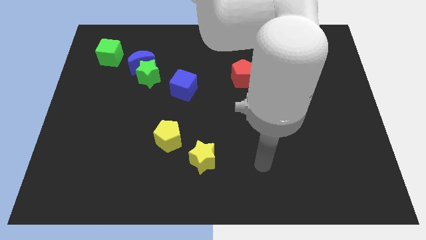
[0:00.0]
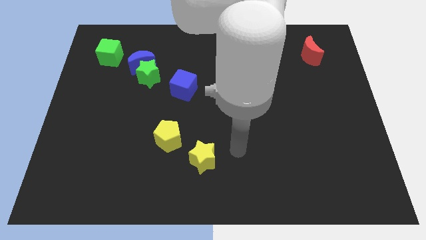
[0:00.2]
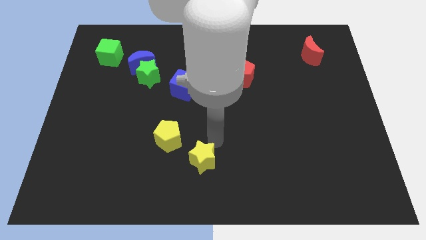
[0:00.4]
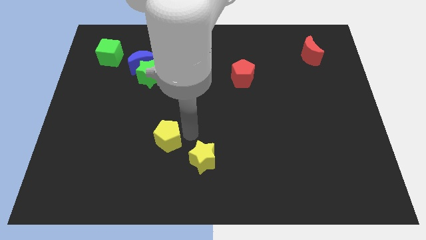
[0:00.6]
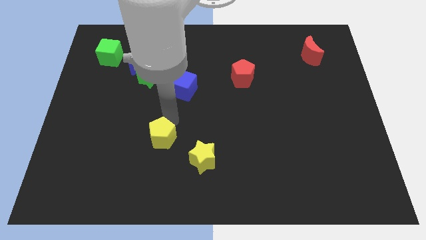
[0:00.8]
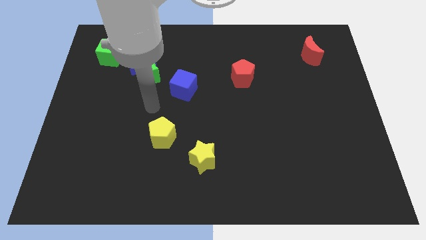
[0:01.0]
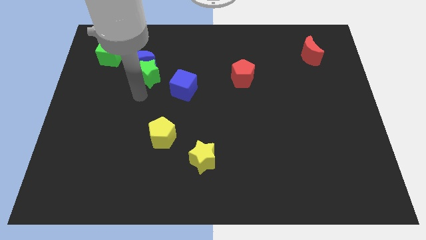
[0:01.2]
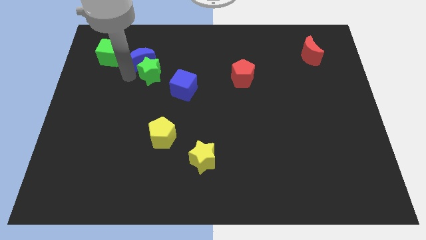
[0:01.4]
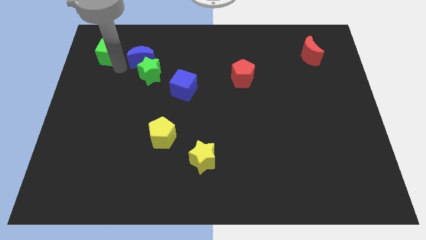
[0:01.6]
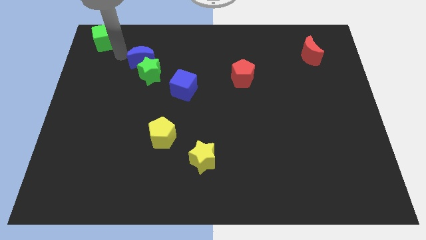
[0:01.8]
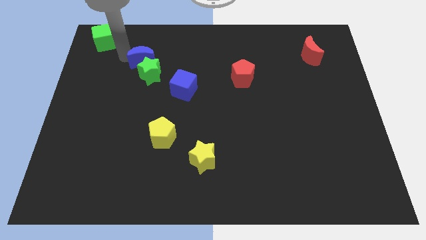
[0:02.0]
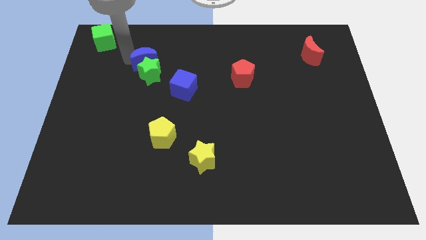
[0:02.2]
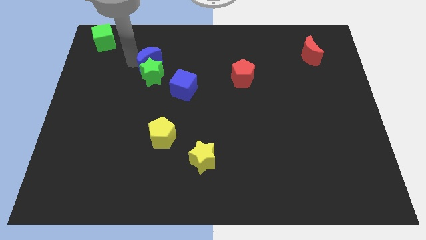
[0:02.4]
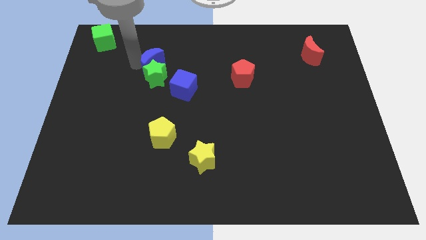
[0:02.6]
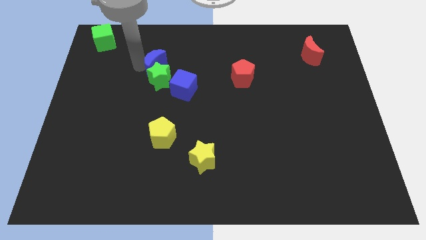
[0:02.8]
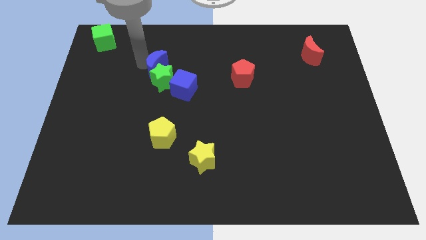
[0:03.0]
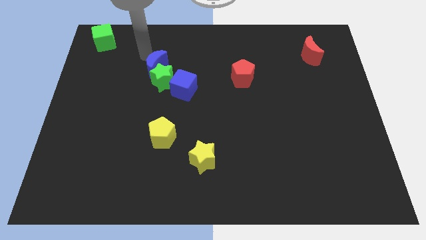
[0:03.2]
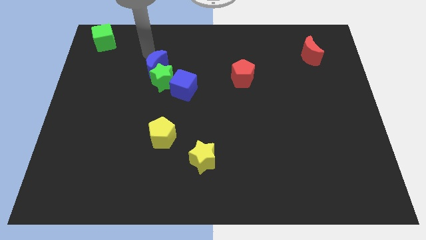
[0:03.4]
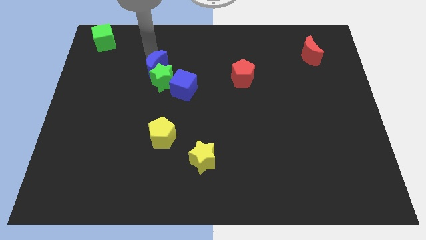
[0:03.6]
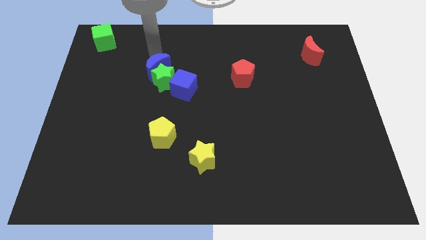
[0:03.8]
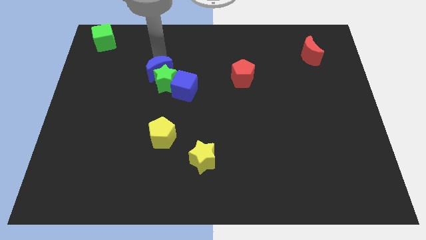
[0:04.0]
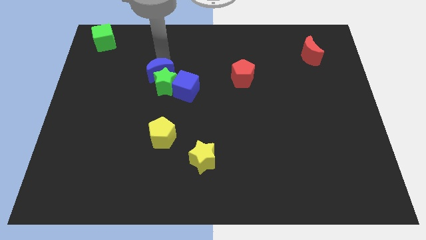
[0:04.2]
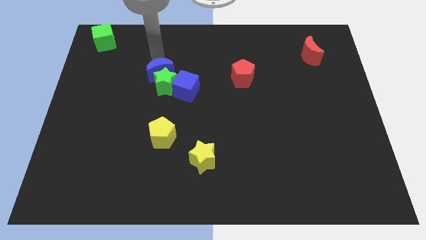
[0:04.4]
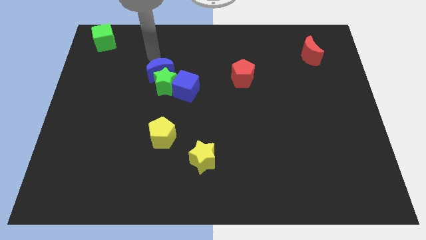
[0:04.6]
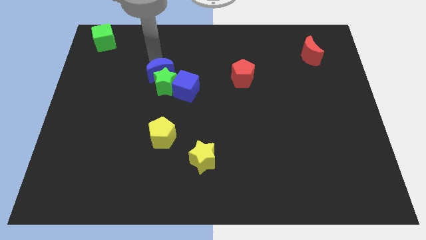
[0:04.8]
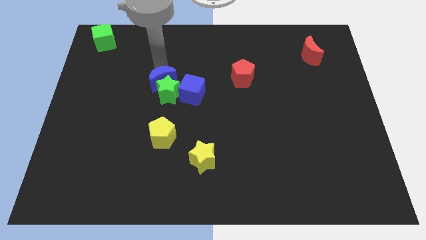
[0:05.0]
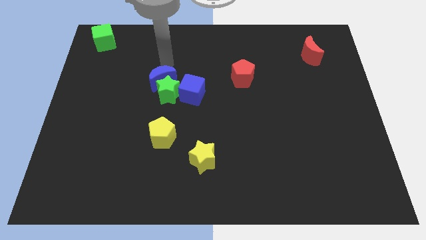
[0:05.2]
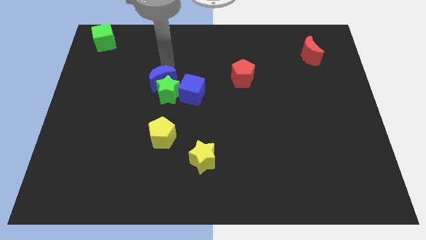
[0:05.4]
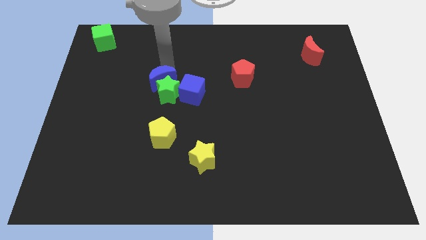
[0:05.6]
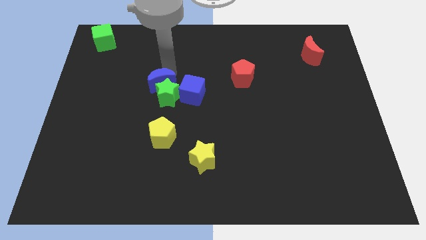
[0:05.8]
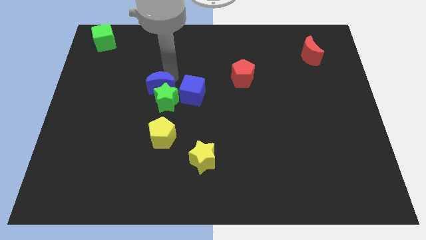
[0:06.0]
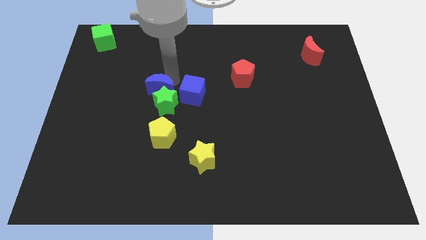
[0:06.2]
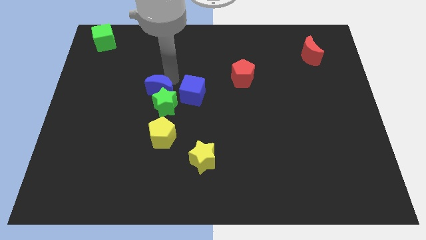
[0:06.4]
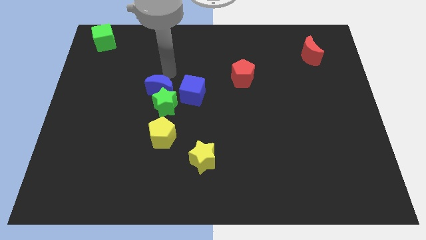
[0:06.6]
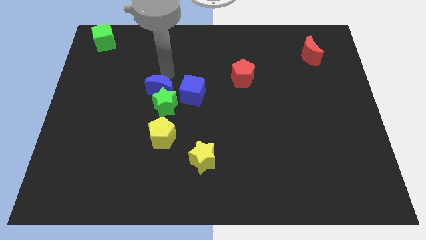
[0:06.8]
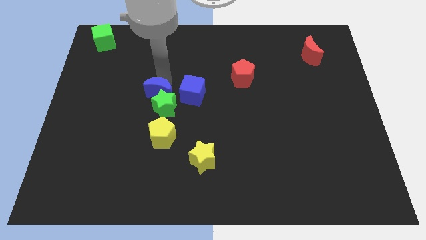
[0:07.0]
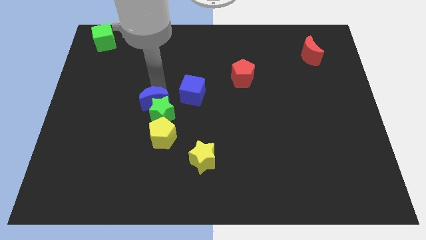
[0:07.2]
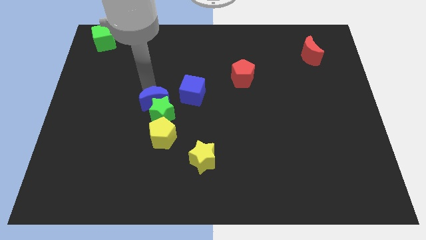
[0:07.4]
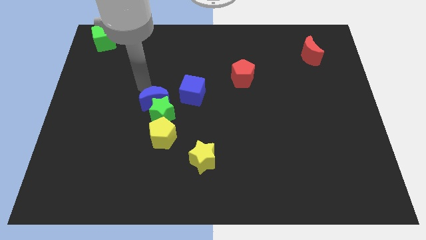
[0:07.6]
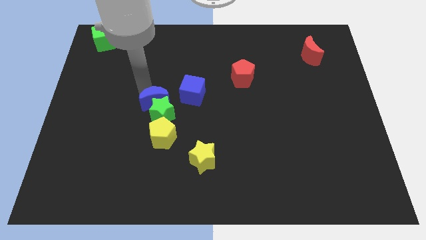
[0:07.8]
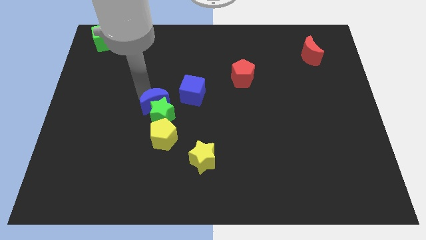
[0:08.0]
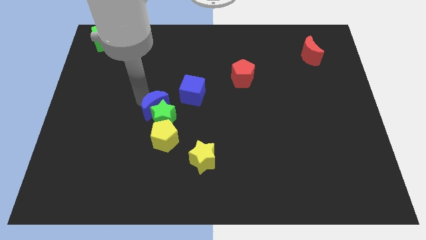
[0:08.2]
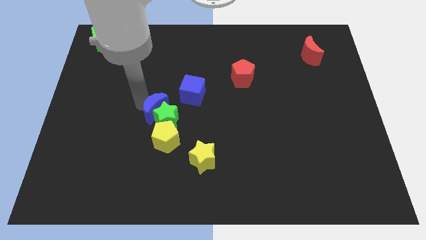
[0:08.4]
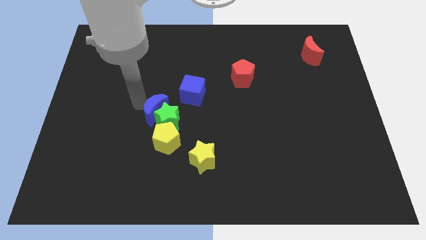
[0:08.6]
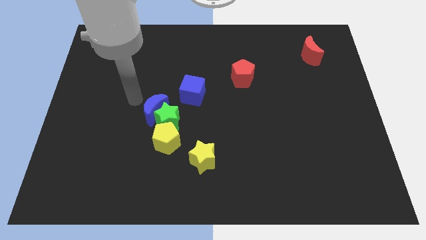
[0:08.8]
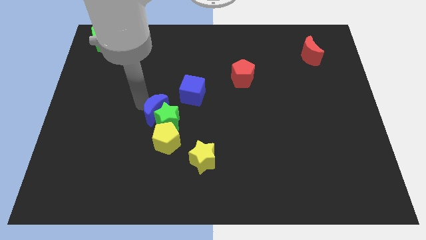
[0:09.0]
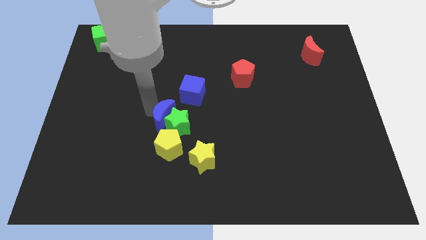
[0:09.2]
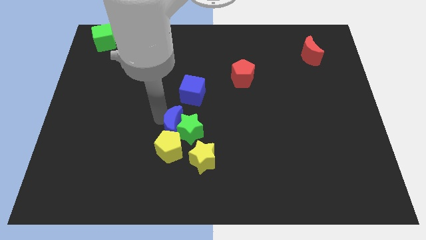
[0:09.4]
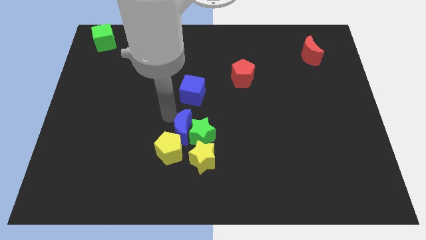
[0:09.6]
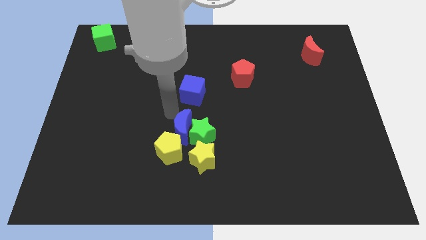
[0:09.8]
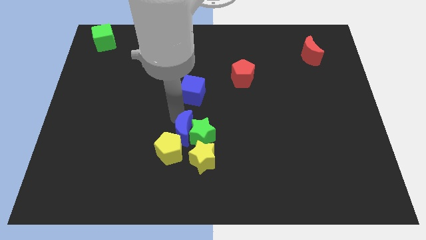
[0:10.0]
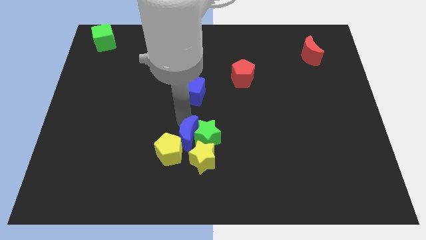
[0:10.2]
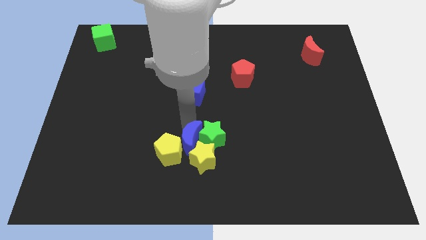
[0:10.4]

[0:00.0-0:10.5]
put the blue moon next to the yellow star

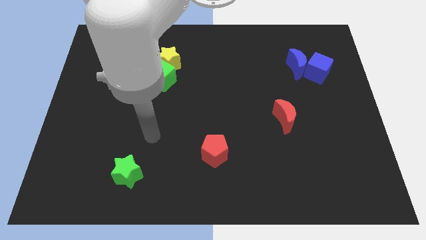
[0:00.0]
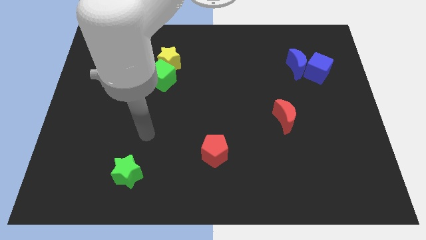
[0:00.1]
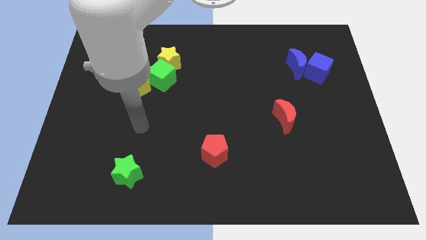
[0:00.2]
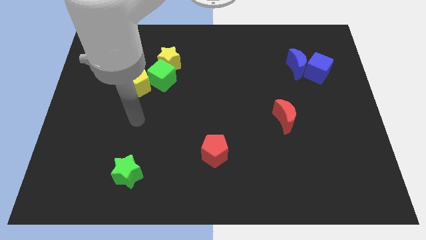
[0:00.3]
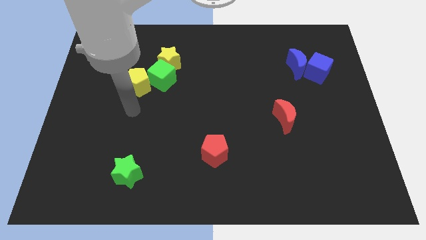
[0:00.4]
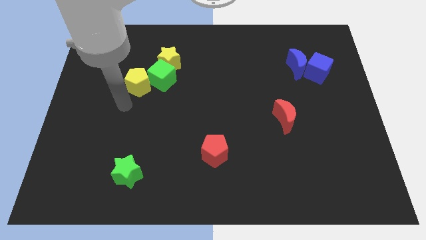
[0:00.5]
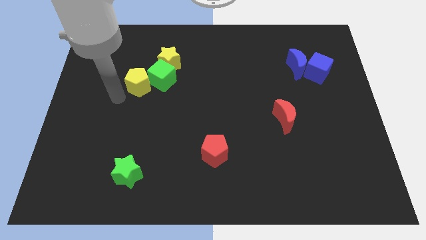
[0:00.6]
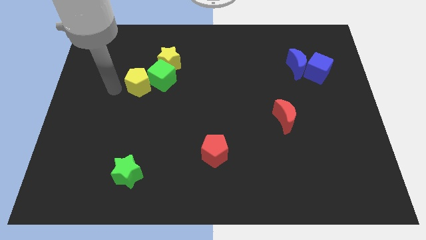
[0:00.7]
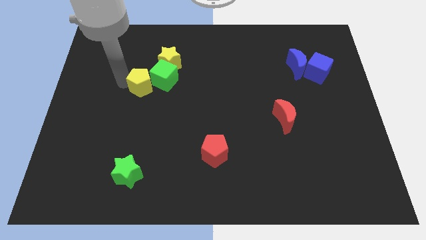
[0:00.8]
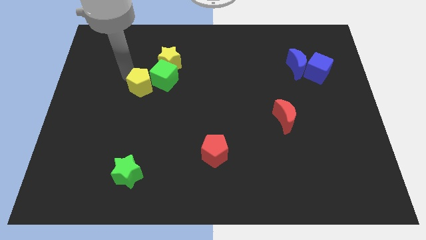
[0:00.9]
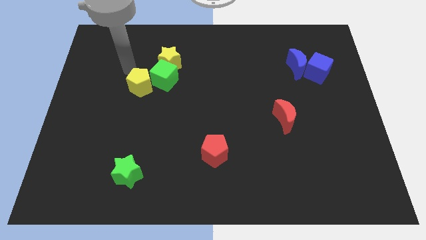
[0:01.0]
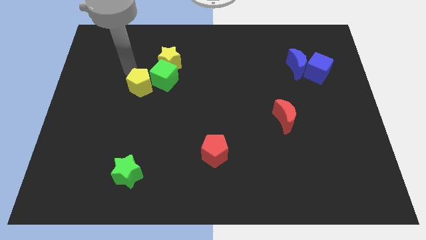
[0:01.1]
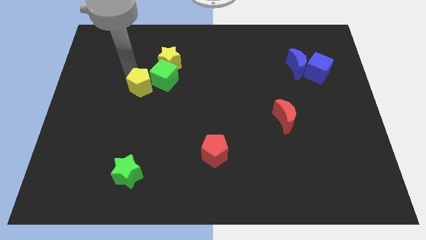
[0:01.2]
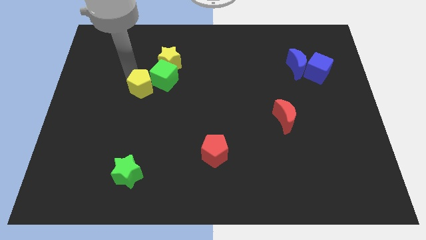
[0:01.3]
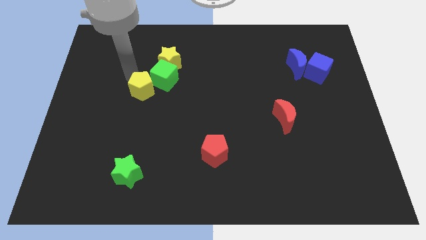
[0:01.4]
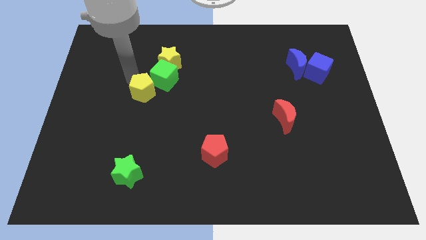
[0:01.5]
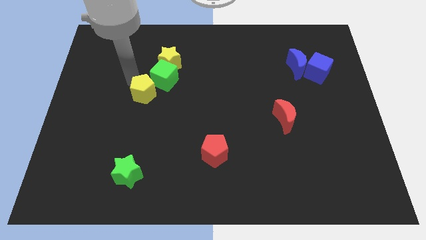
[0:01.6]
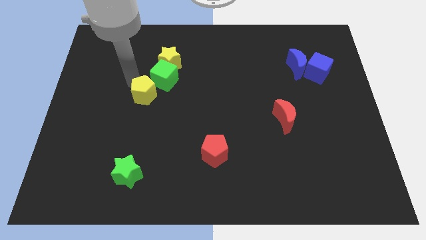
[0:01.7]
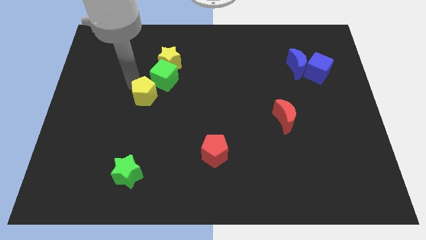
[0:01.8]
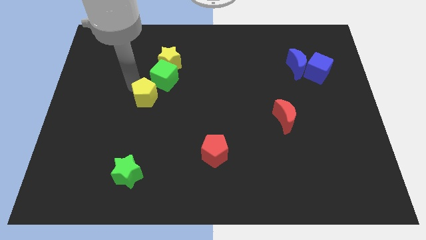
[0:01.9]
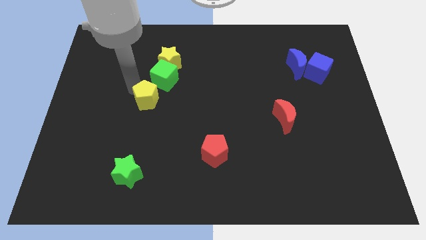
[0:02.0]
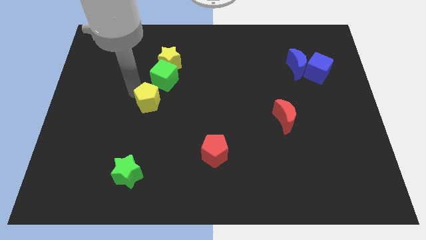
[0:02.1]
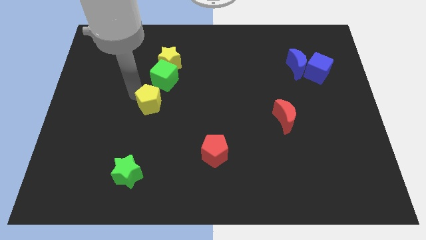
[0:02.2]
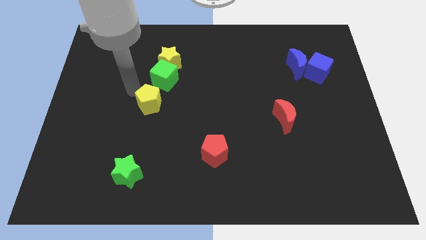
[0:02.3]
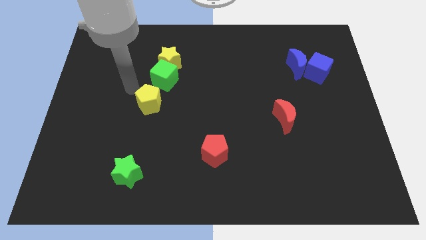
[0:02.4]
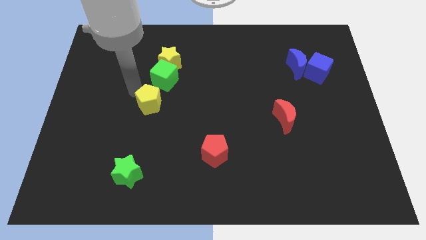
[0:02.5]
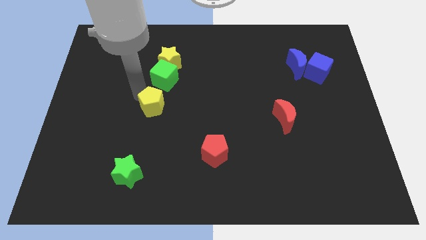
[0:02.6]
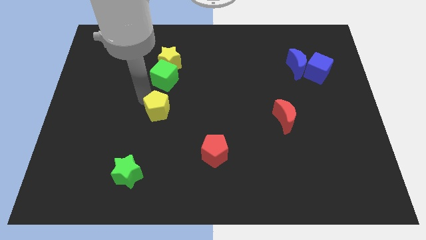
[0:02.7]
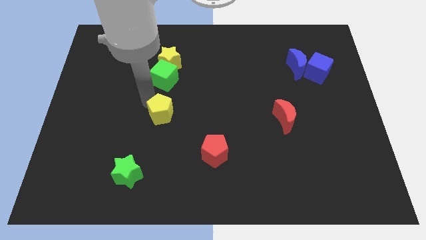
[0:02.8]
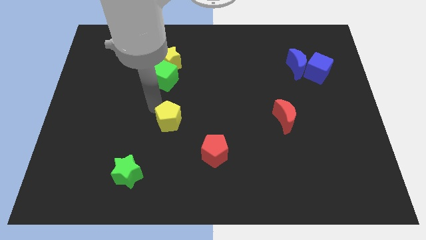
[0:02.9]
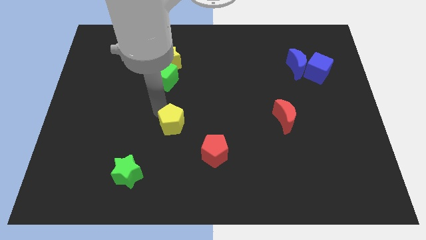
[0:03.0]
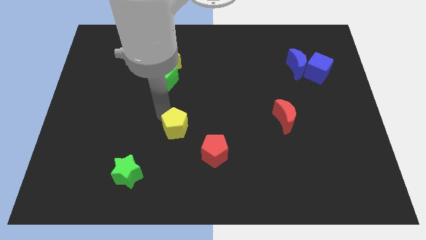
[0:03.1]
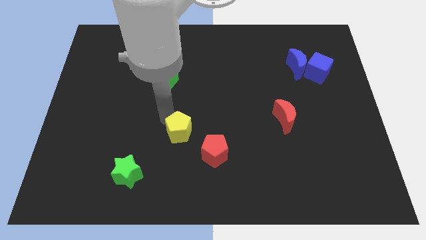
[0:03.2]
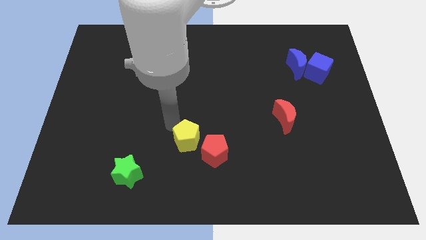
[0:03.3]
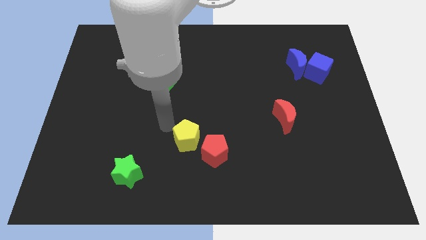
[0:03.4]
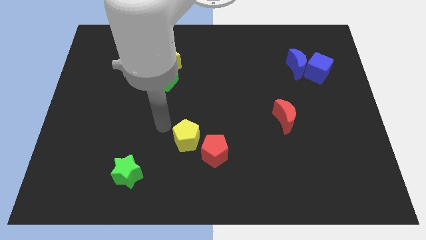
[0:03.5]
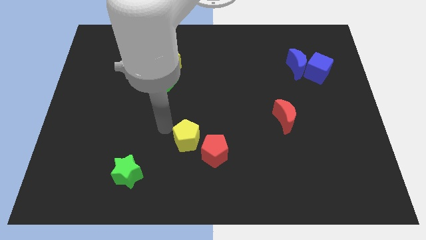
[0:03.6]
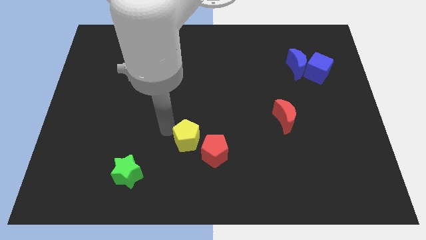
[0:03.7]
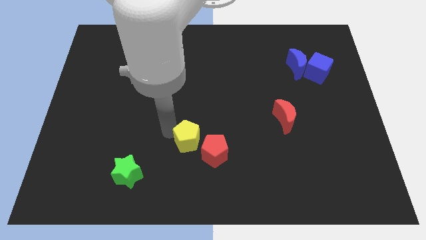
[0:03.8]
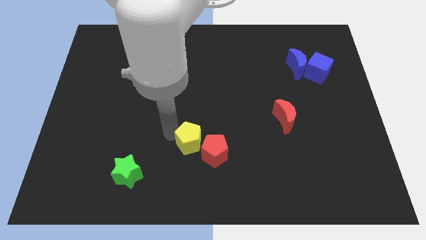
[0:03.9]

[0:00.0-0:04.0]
put the yellow pentagon to the red pentagon
